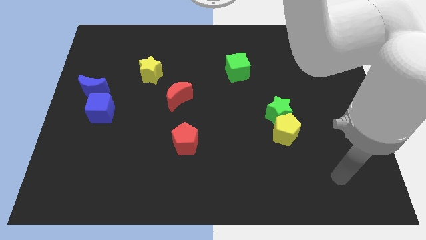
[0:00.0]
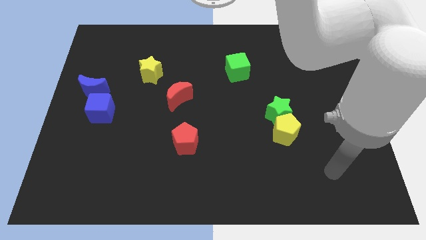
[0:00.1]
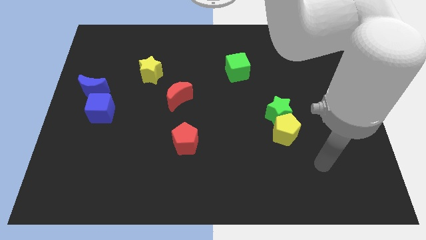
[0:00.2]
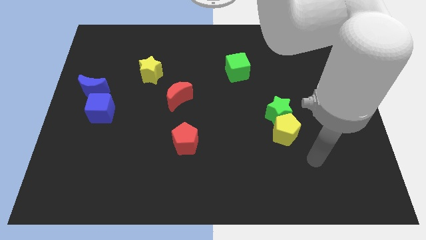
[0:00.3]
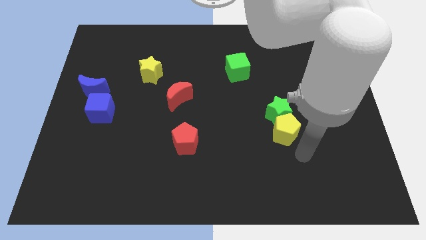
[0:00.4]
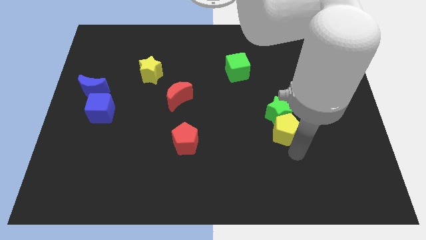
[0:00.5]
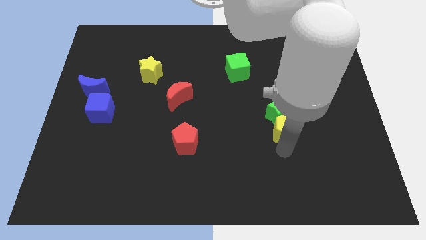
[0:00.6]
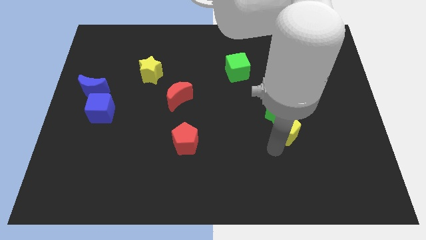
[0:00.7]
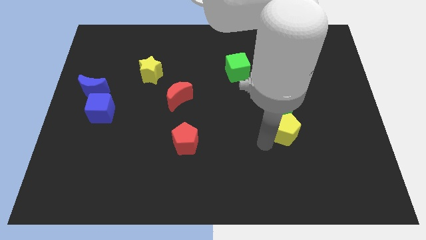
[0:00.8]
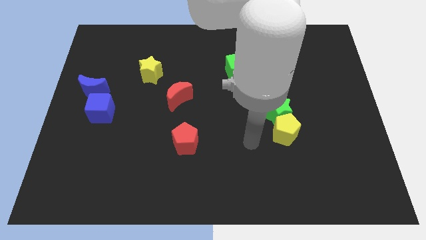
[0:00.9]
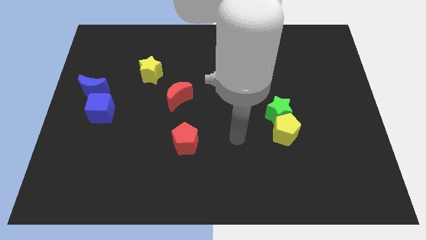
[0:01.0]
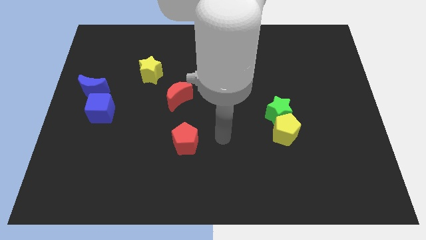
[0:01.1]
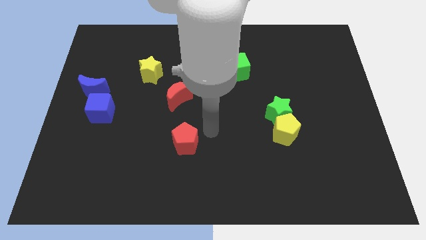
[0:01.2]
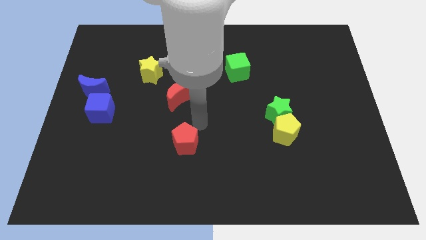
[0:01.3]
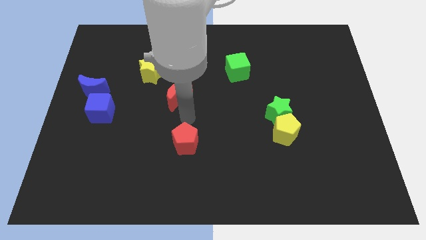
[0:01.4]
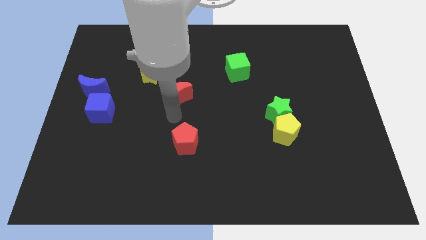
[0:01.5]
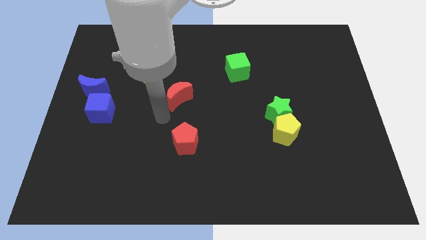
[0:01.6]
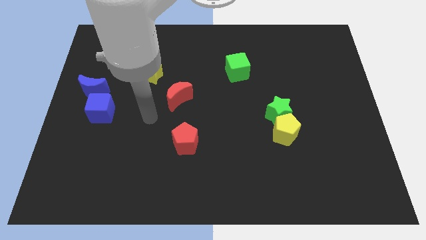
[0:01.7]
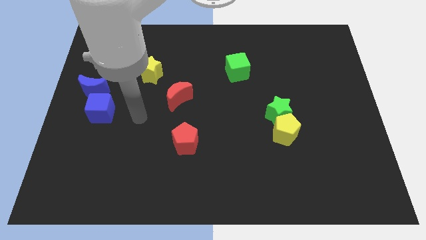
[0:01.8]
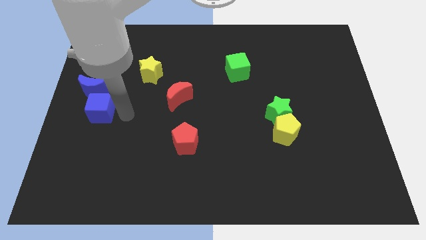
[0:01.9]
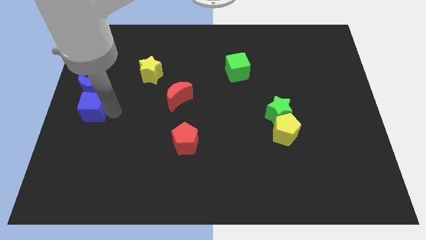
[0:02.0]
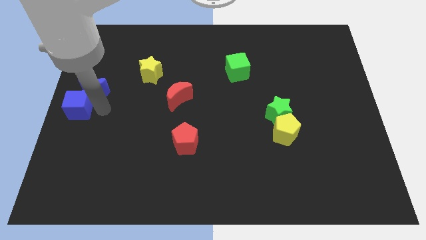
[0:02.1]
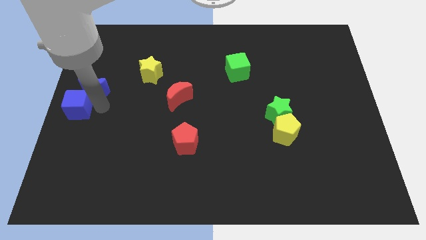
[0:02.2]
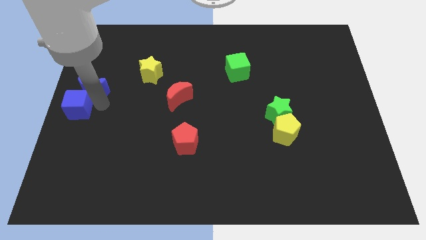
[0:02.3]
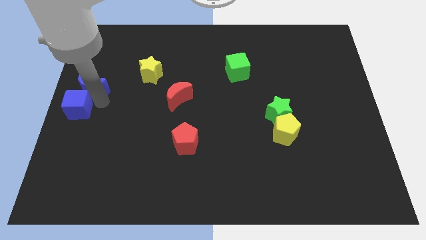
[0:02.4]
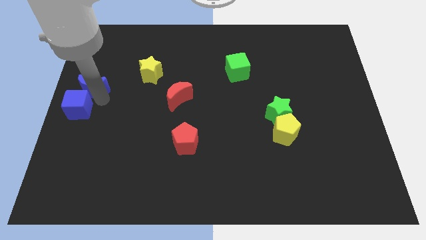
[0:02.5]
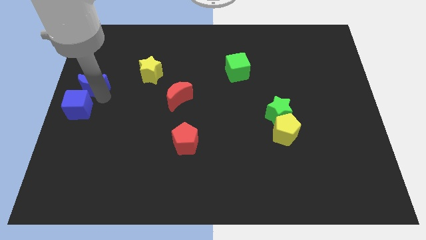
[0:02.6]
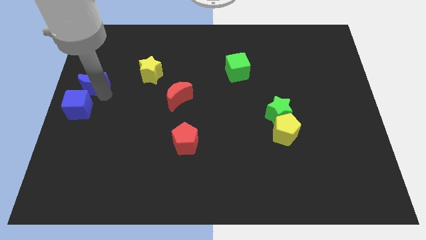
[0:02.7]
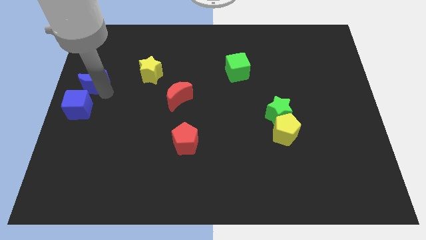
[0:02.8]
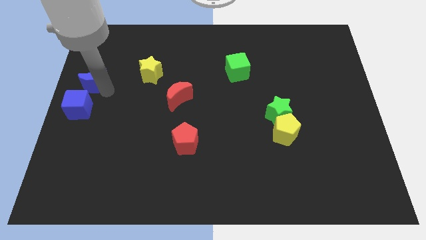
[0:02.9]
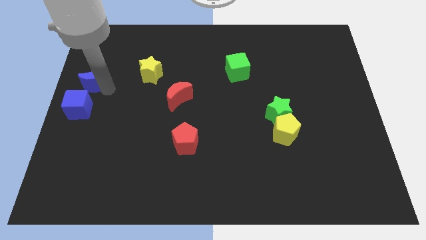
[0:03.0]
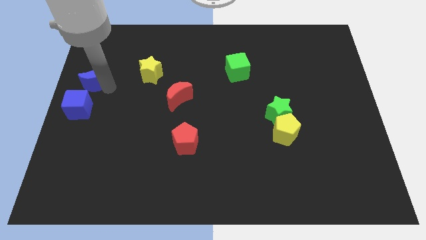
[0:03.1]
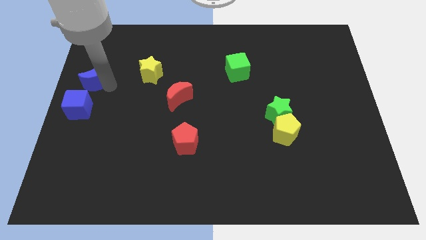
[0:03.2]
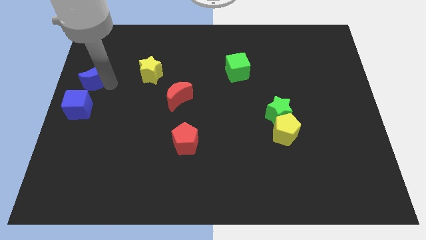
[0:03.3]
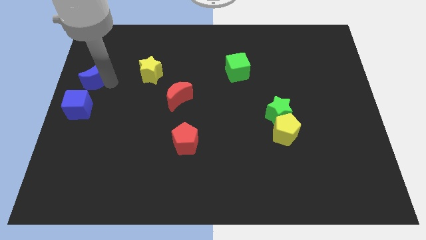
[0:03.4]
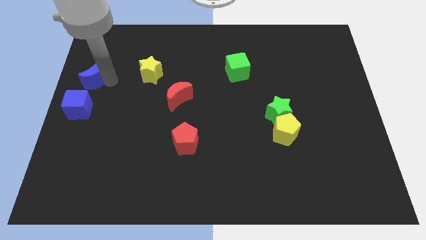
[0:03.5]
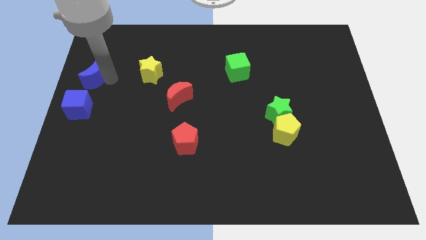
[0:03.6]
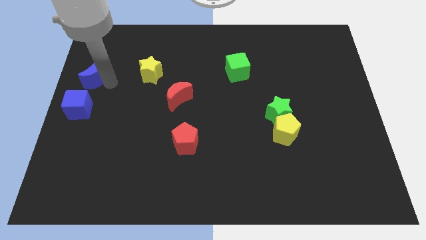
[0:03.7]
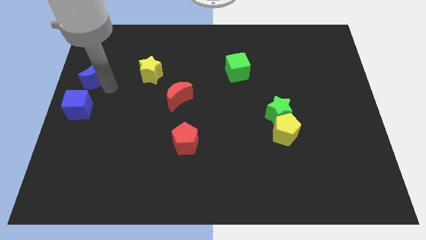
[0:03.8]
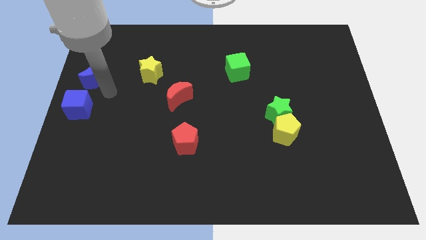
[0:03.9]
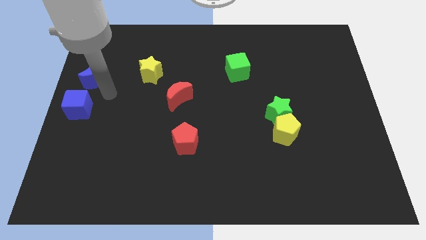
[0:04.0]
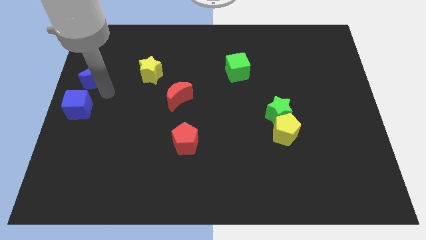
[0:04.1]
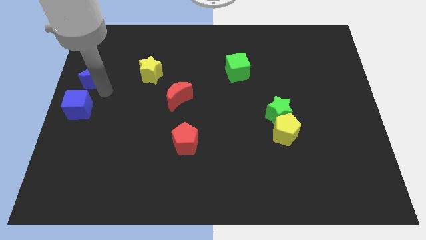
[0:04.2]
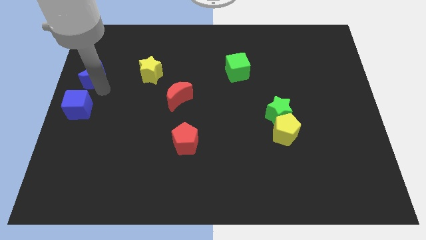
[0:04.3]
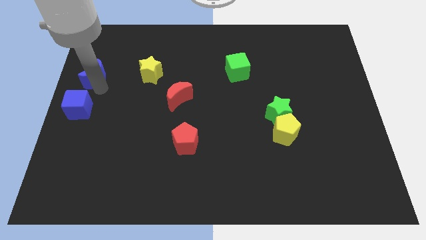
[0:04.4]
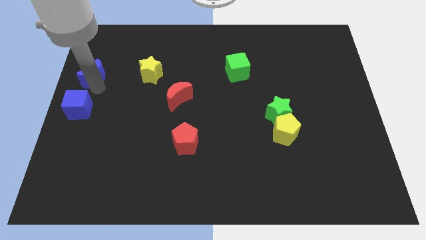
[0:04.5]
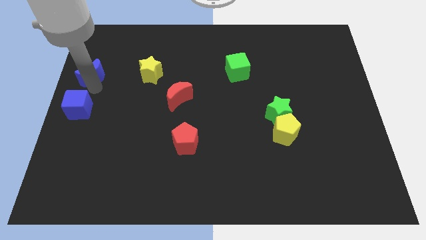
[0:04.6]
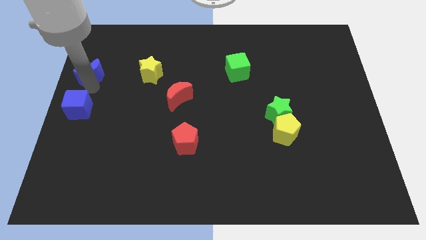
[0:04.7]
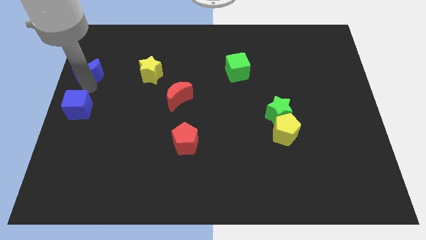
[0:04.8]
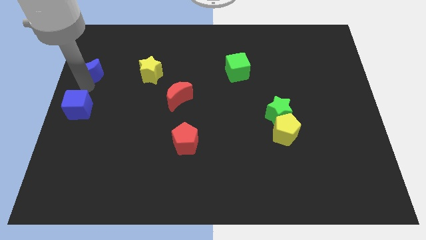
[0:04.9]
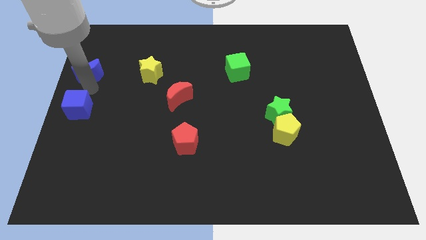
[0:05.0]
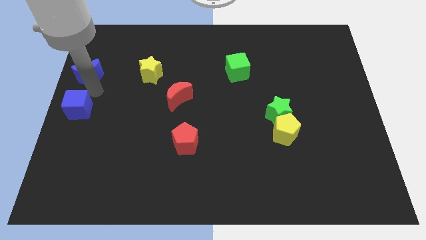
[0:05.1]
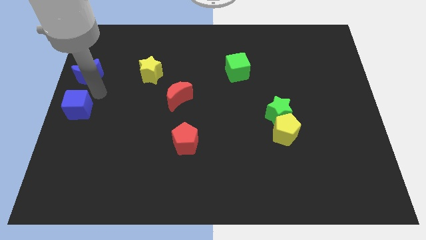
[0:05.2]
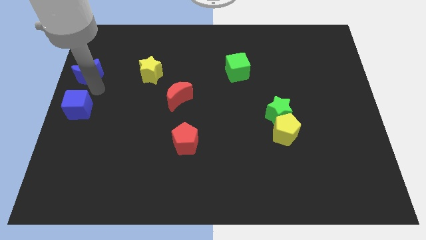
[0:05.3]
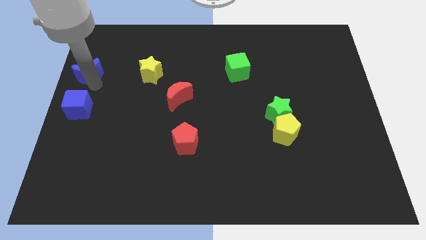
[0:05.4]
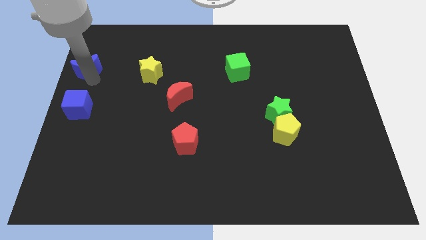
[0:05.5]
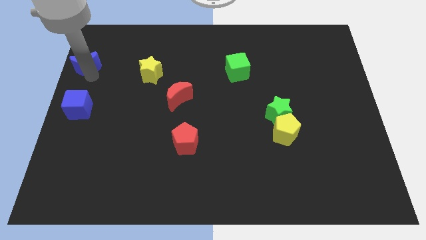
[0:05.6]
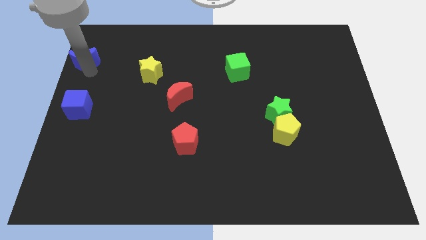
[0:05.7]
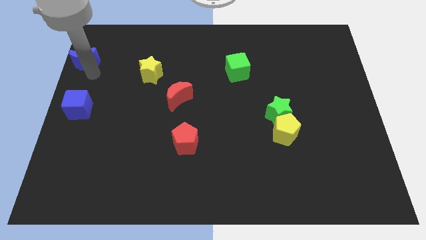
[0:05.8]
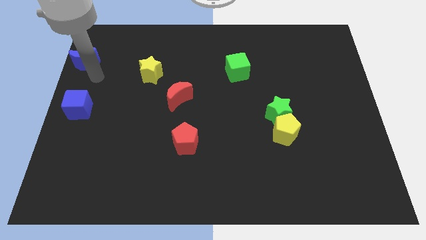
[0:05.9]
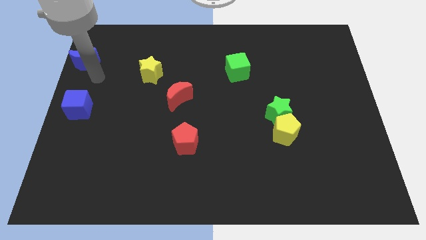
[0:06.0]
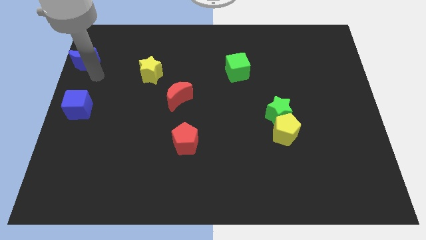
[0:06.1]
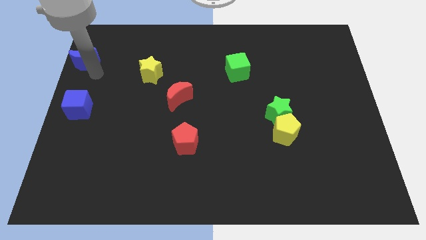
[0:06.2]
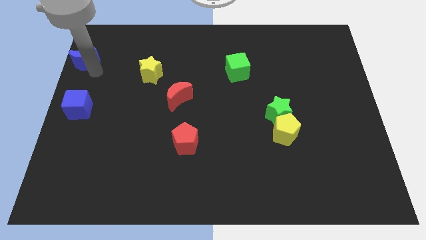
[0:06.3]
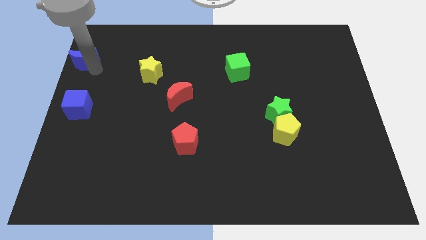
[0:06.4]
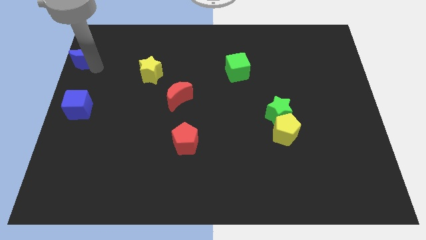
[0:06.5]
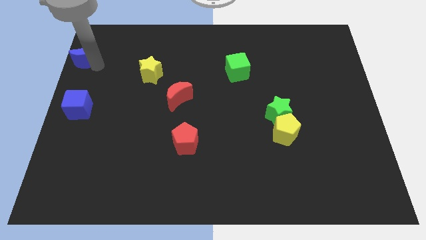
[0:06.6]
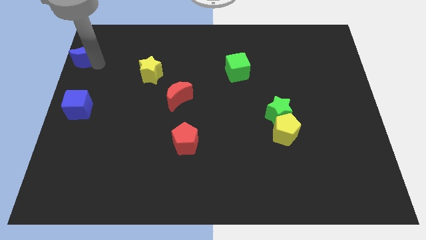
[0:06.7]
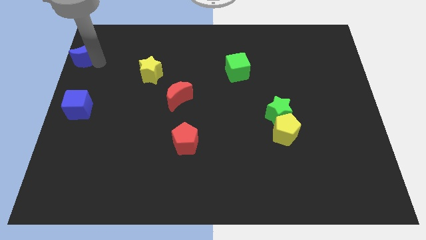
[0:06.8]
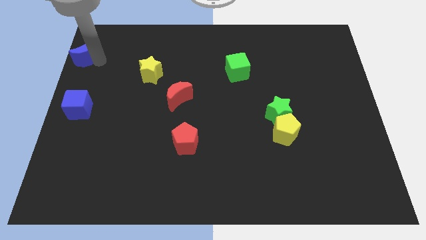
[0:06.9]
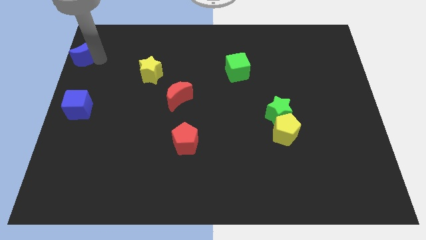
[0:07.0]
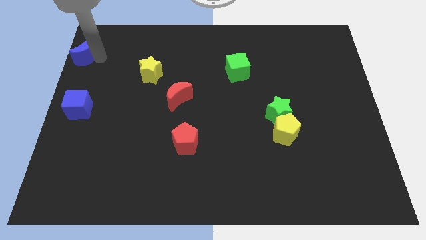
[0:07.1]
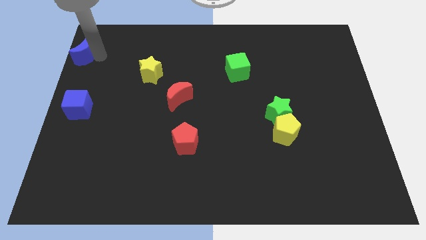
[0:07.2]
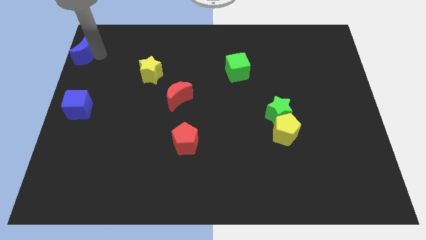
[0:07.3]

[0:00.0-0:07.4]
push the blue moon to the top left
